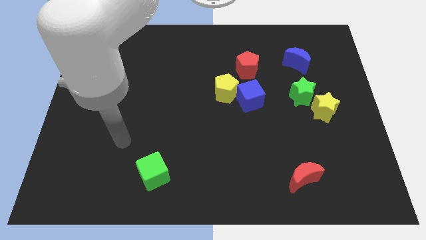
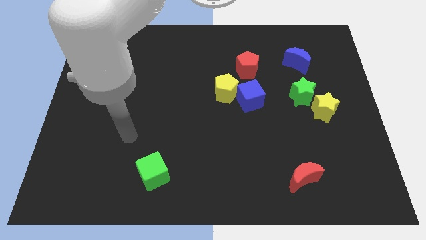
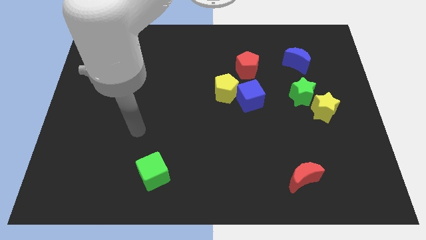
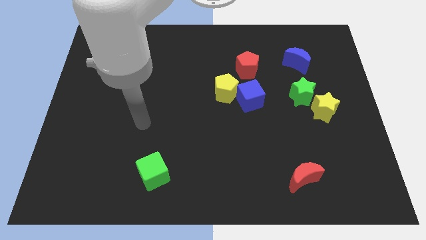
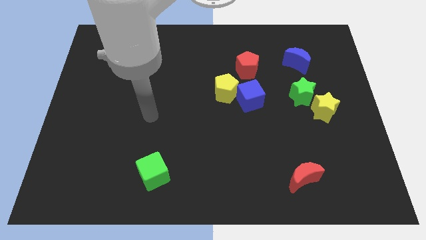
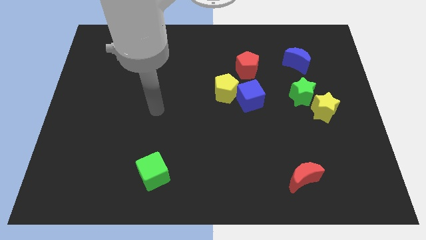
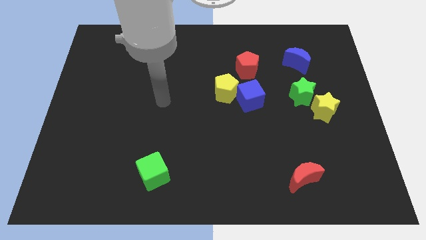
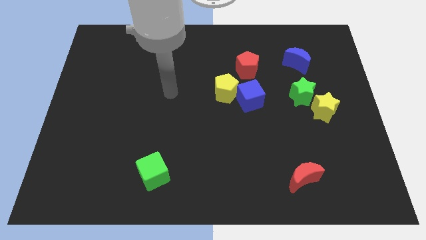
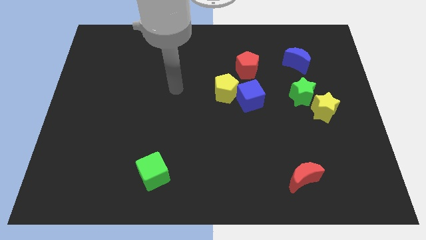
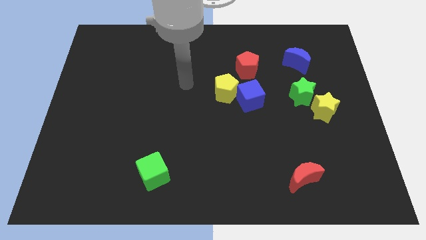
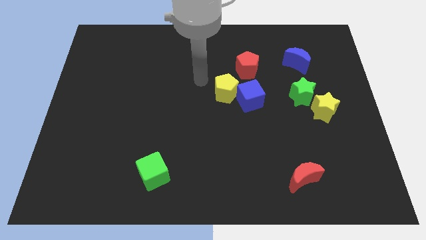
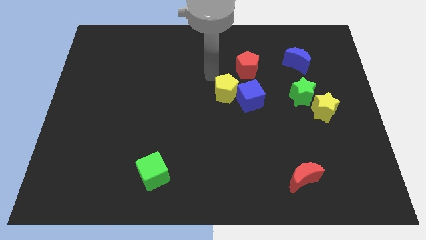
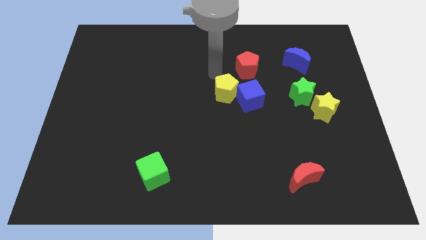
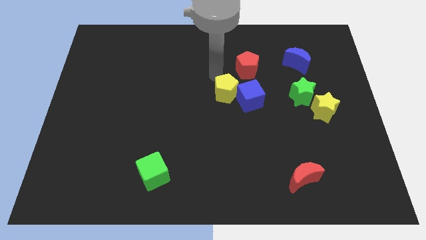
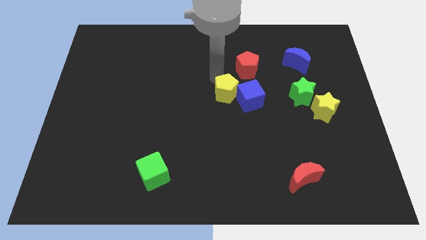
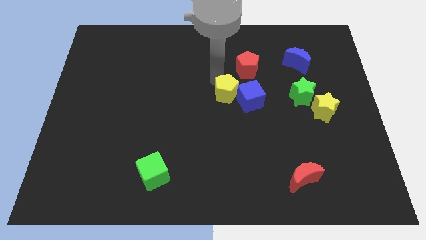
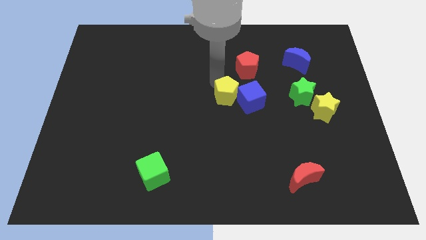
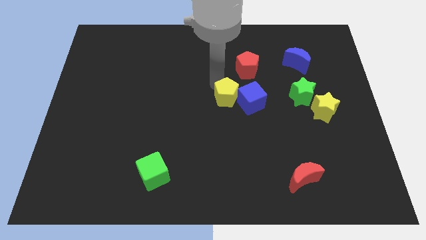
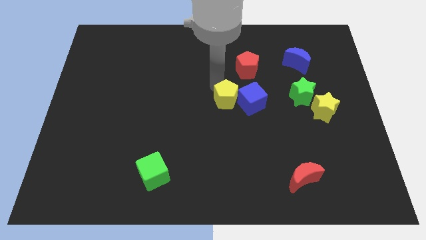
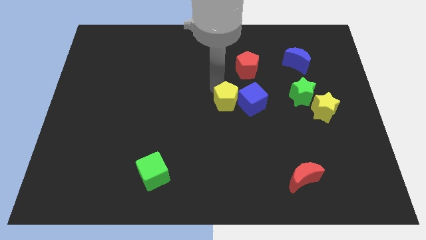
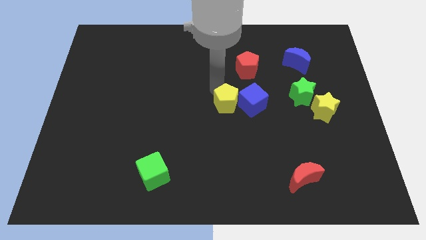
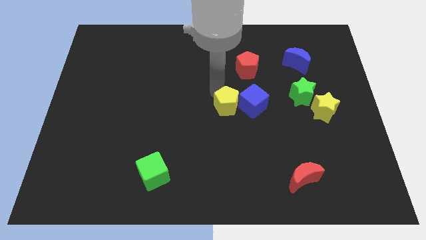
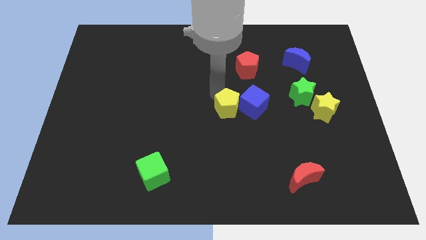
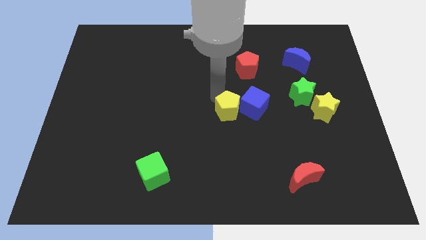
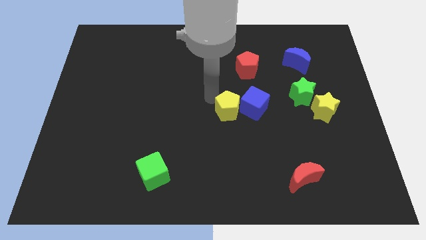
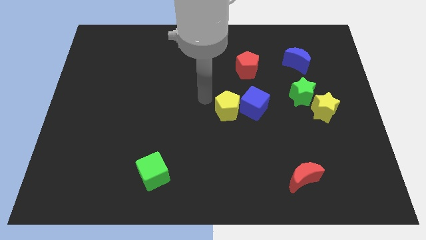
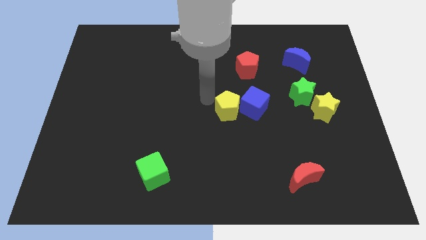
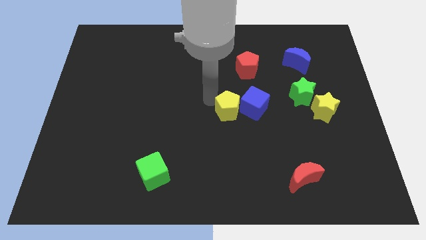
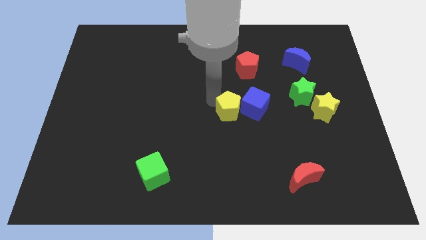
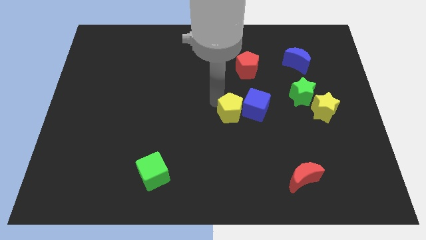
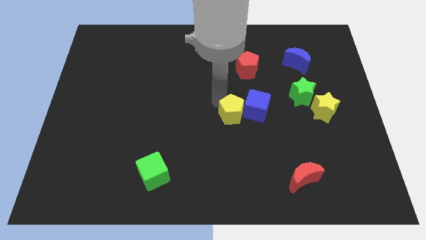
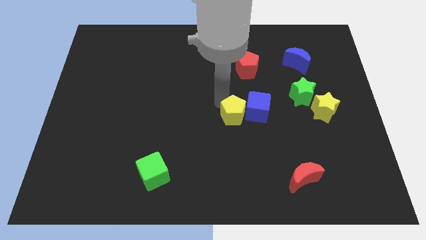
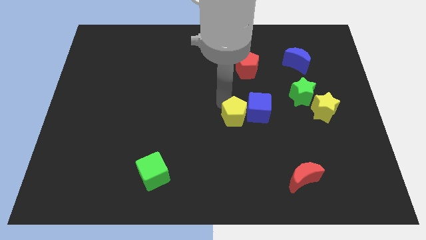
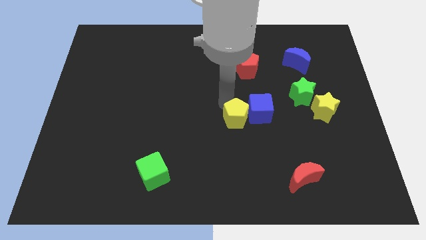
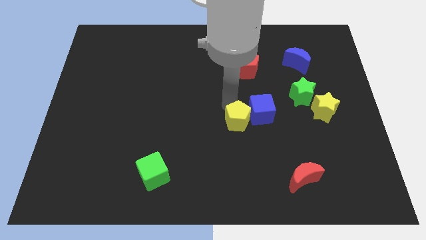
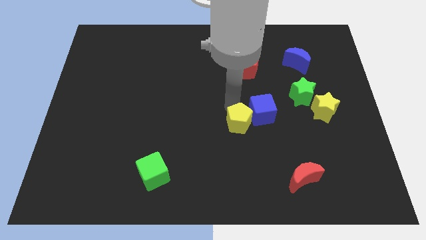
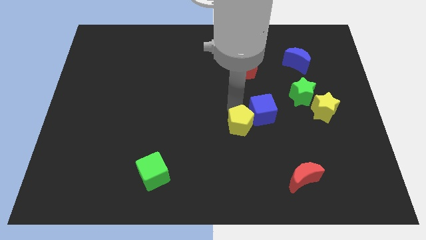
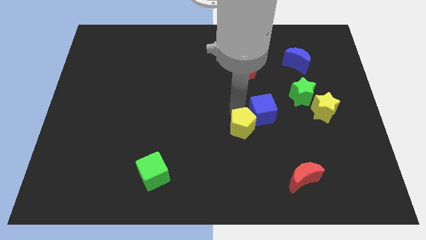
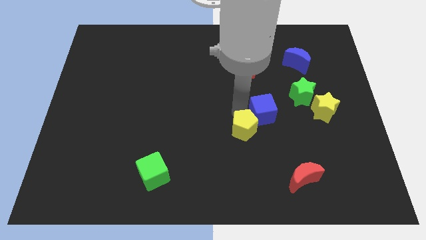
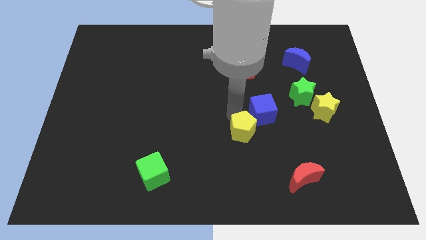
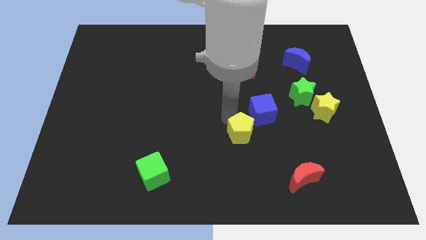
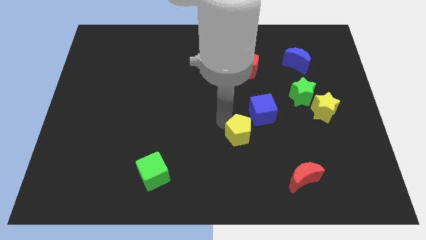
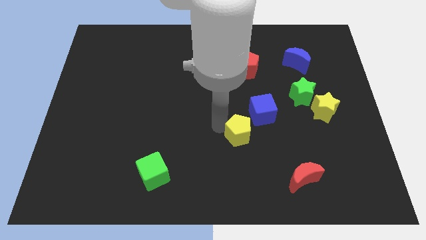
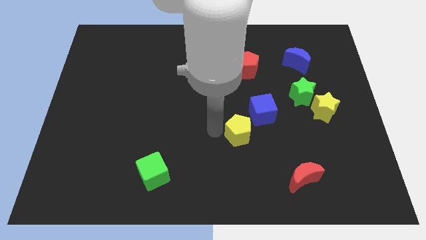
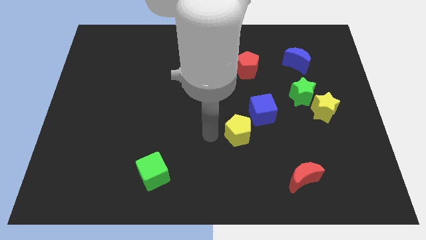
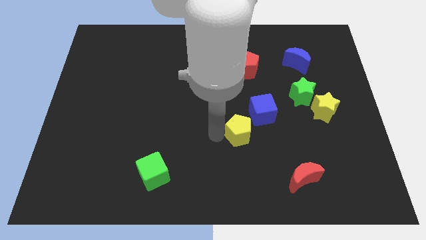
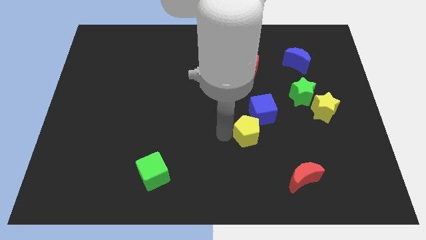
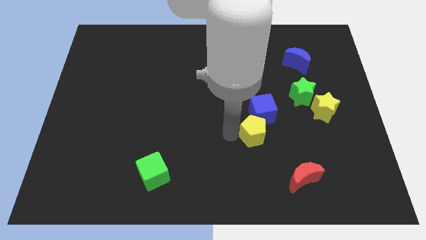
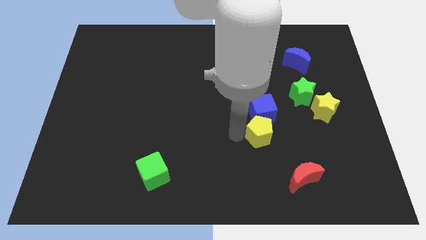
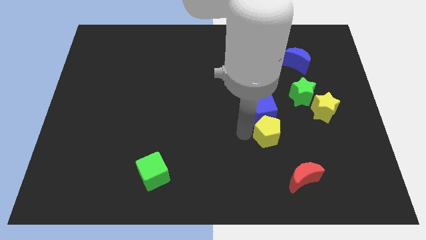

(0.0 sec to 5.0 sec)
put the yellow pentagon to the top left side of the red moon

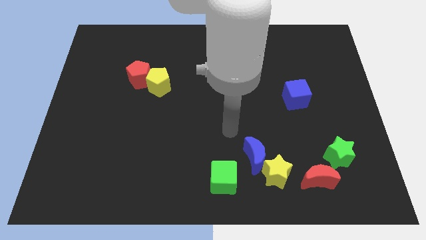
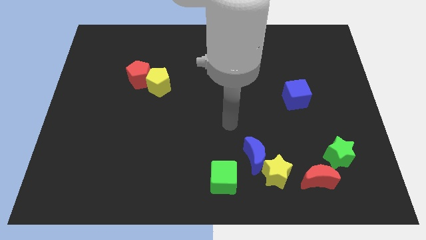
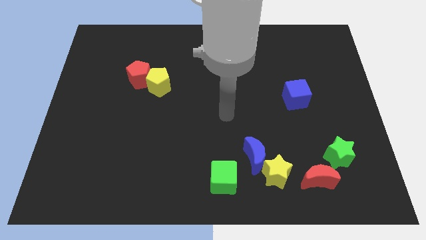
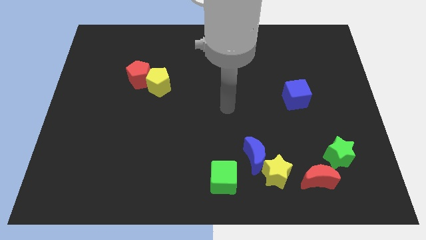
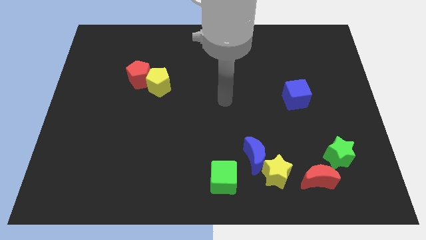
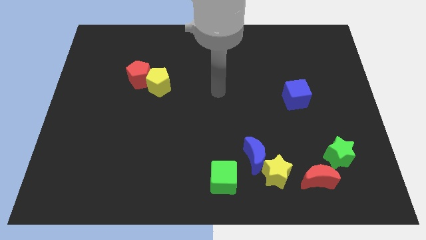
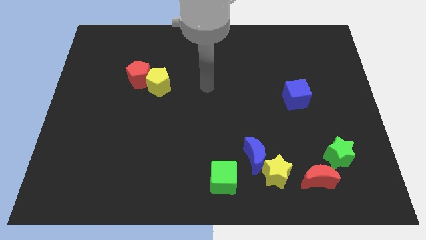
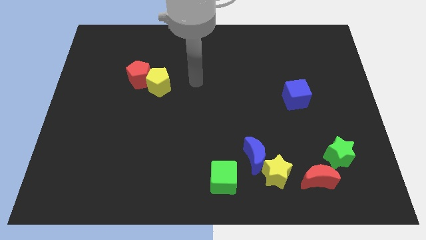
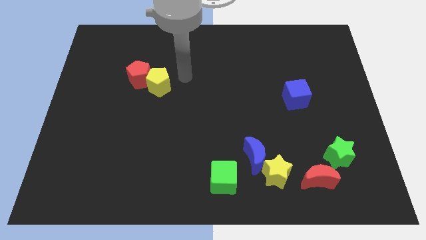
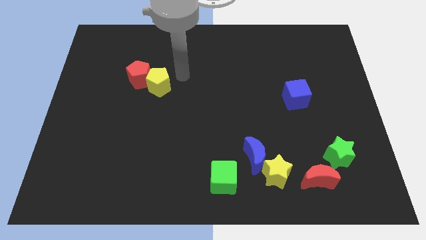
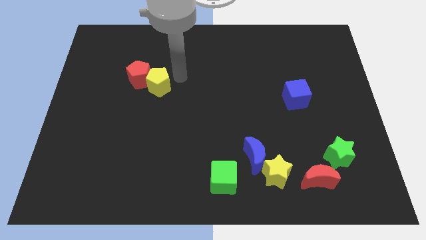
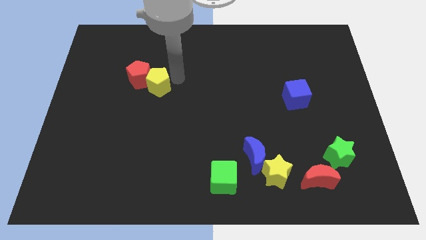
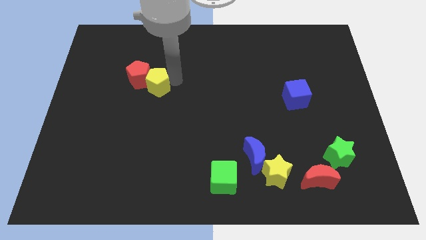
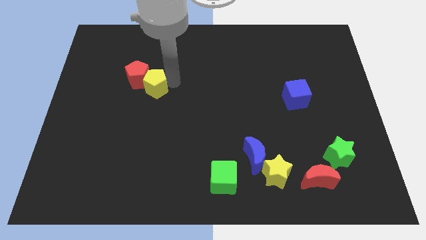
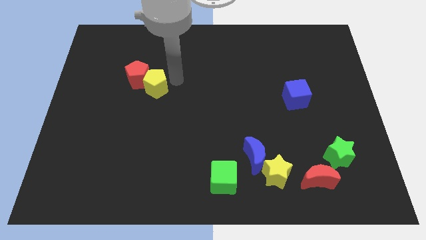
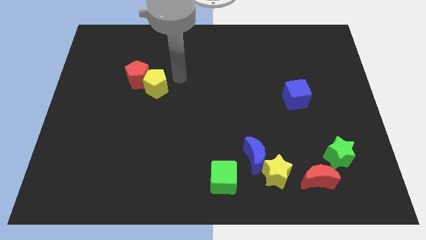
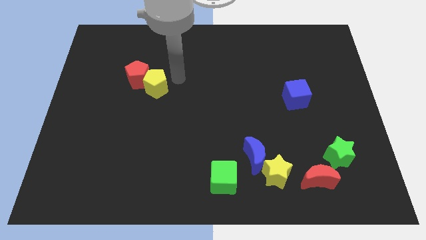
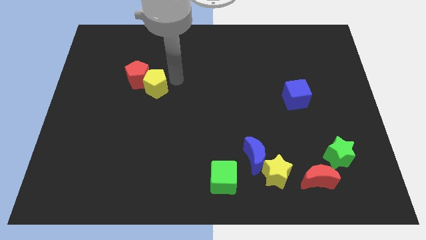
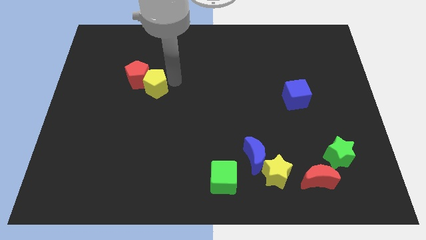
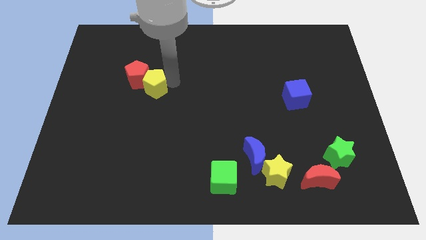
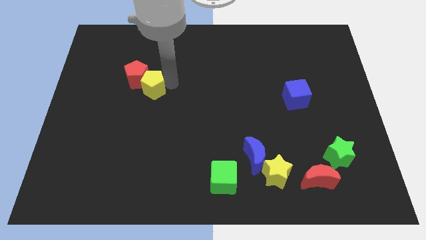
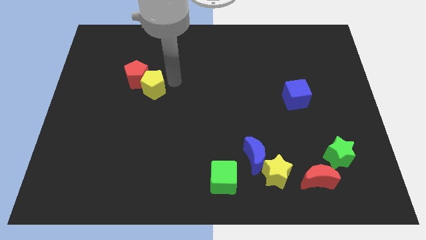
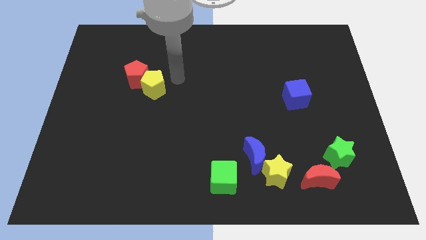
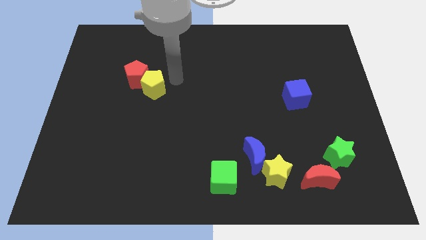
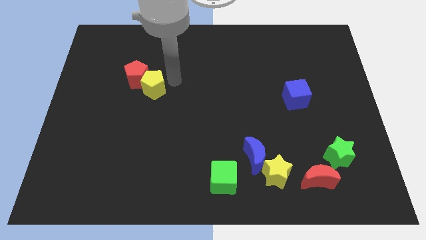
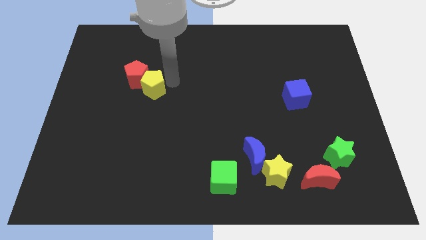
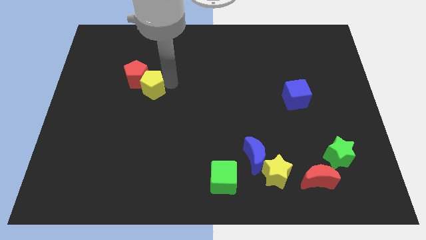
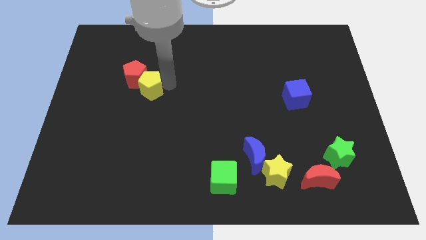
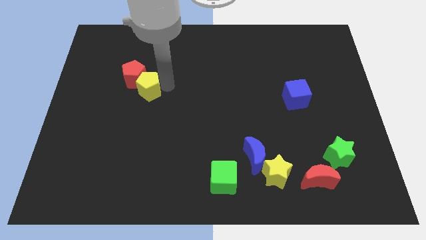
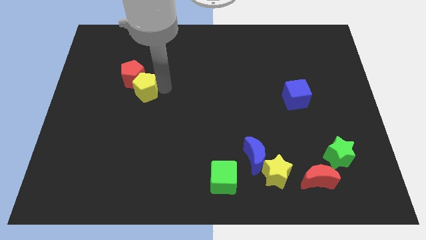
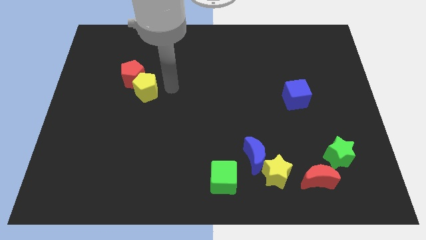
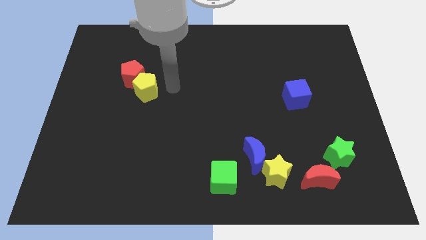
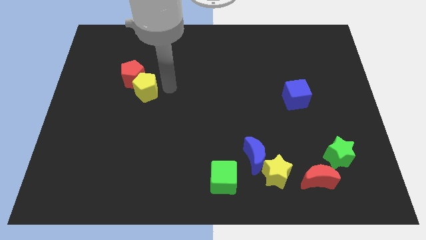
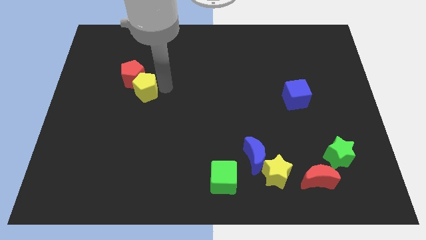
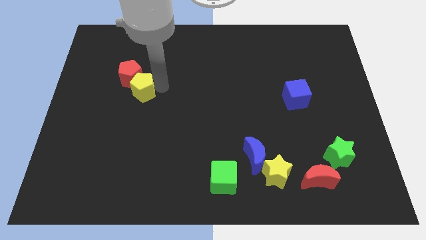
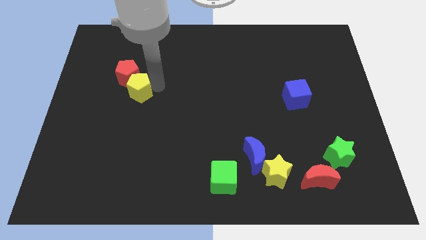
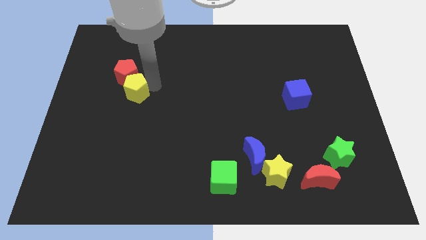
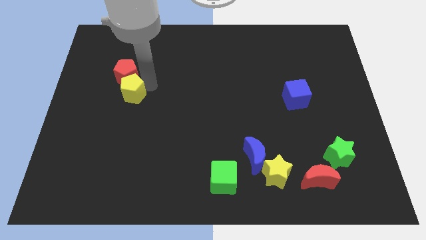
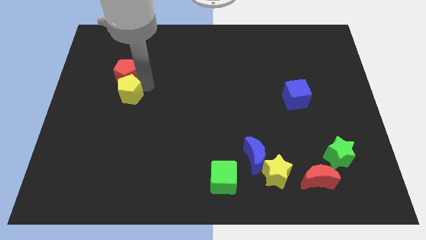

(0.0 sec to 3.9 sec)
move the yellow pentagon diagonally down and to the left of the red pentagon
